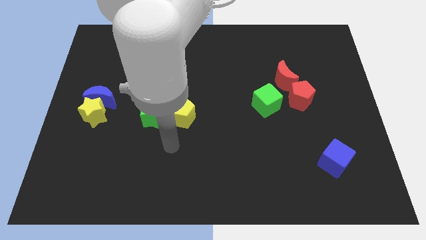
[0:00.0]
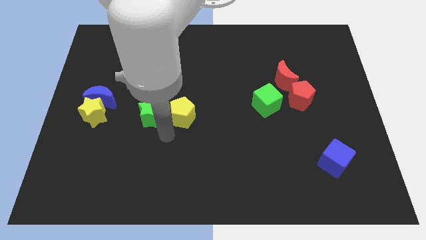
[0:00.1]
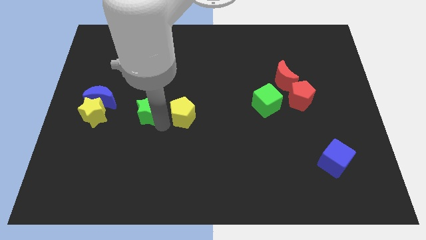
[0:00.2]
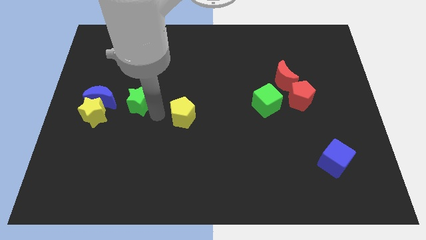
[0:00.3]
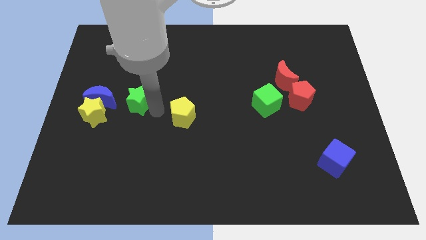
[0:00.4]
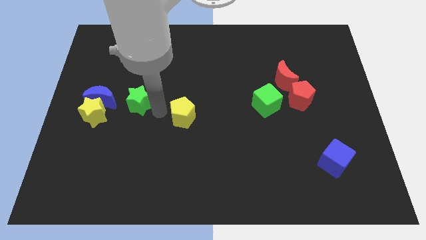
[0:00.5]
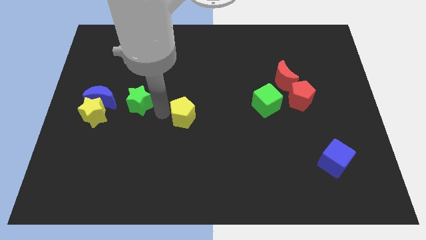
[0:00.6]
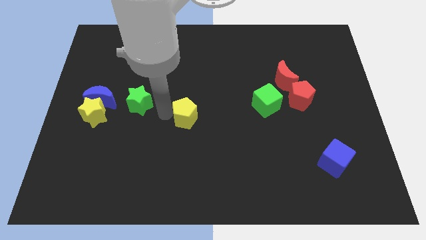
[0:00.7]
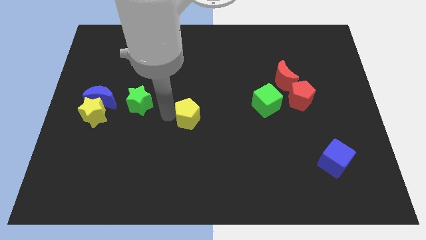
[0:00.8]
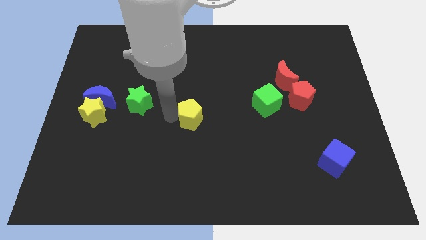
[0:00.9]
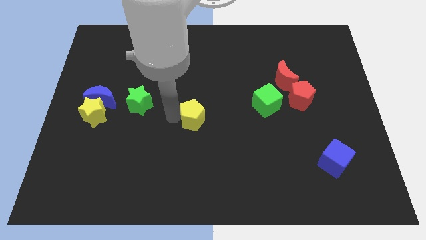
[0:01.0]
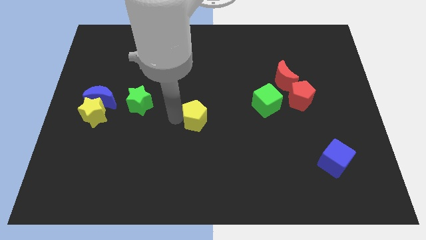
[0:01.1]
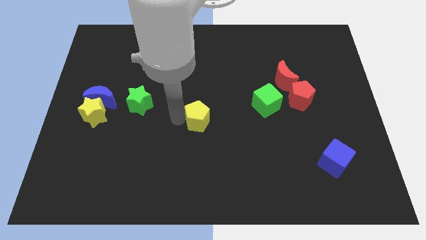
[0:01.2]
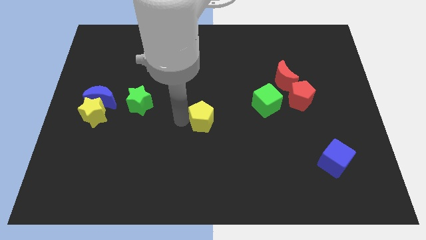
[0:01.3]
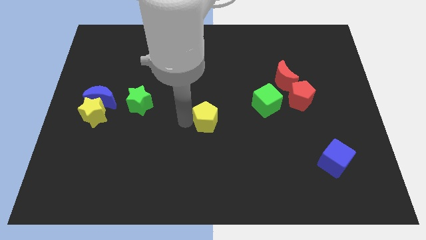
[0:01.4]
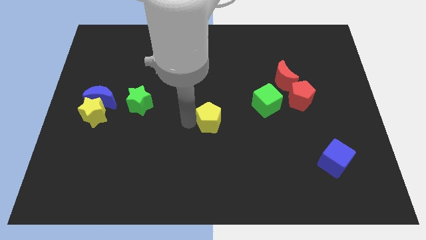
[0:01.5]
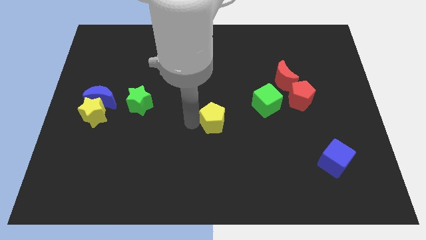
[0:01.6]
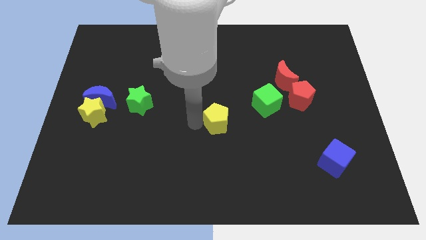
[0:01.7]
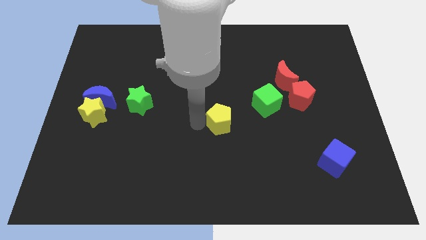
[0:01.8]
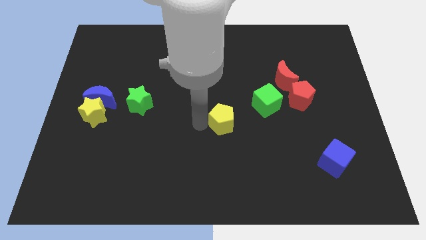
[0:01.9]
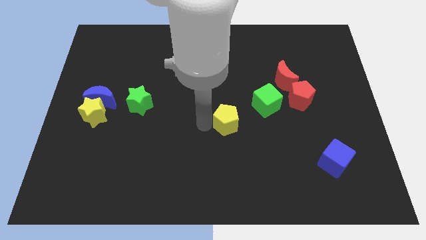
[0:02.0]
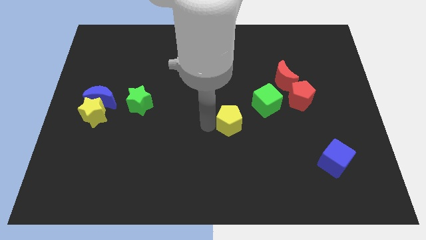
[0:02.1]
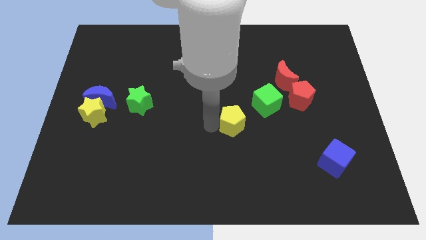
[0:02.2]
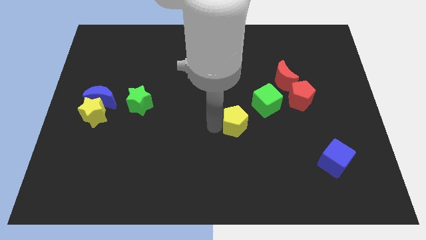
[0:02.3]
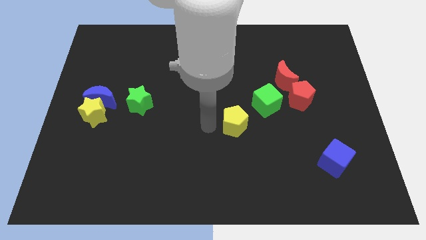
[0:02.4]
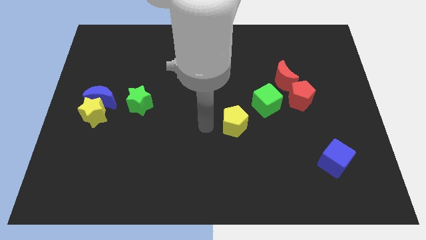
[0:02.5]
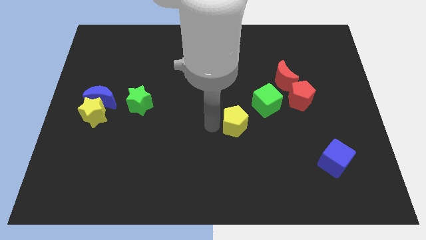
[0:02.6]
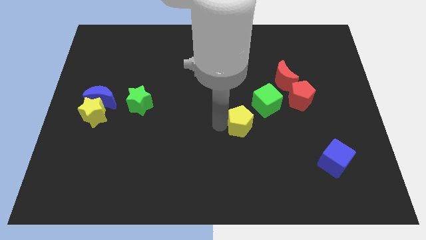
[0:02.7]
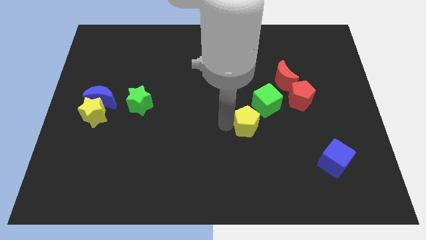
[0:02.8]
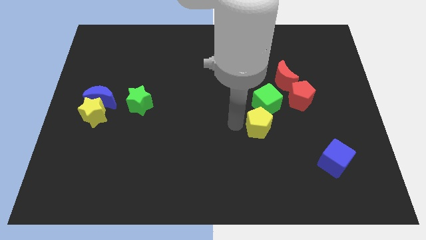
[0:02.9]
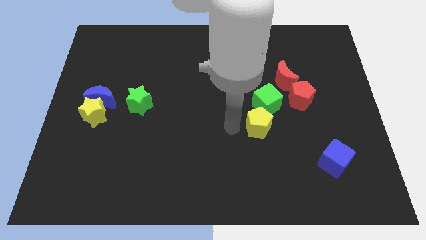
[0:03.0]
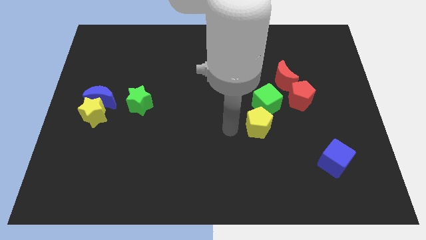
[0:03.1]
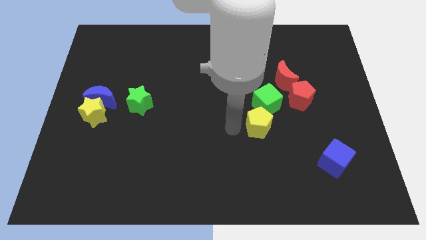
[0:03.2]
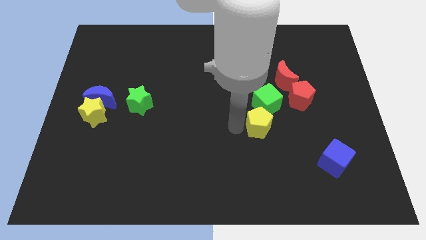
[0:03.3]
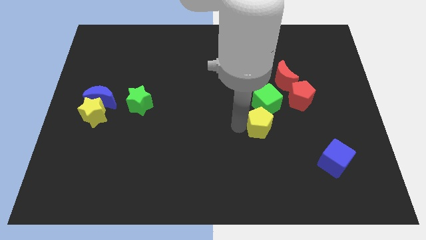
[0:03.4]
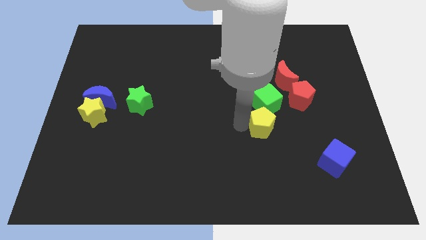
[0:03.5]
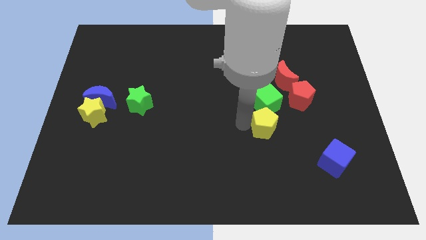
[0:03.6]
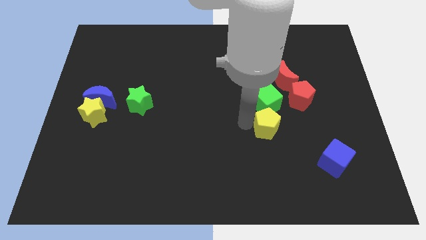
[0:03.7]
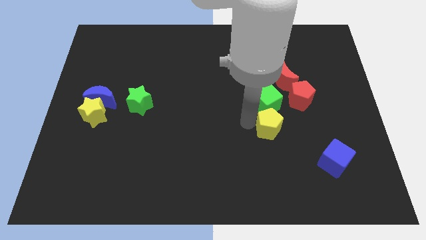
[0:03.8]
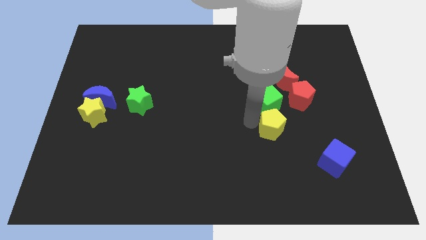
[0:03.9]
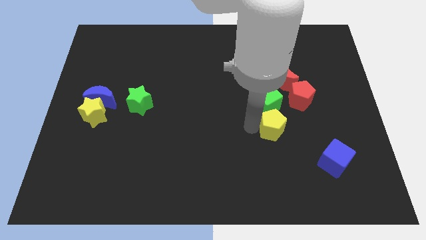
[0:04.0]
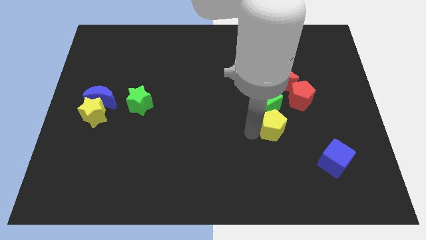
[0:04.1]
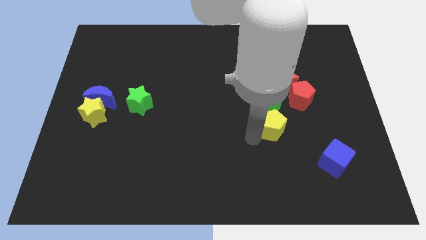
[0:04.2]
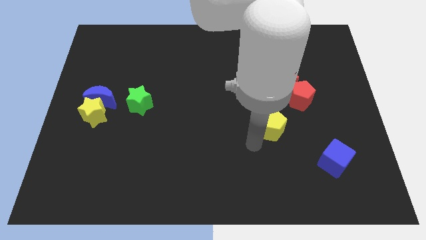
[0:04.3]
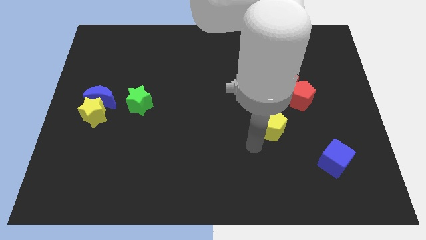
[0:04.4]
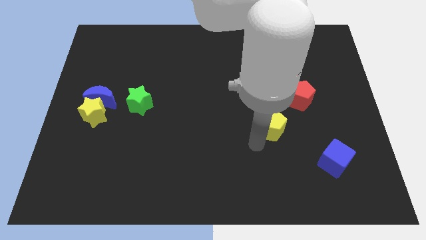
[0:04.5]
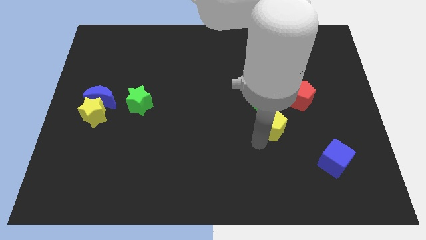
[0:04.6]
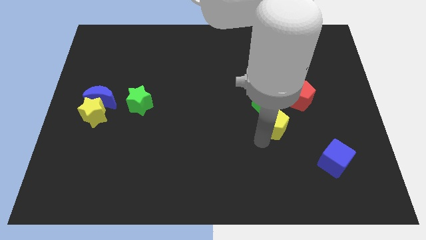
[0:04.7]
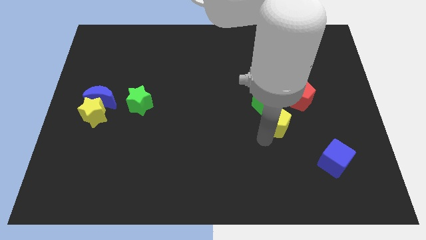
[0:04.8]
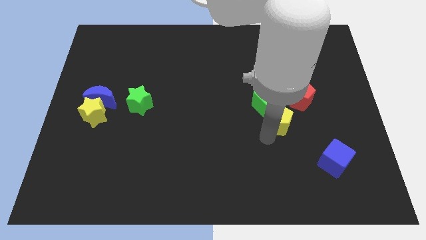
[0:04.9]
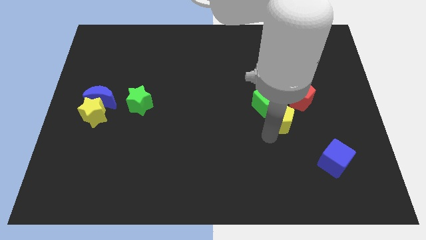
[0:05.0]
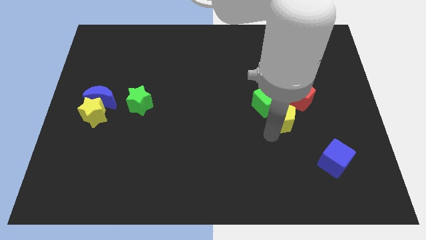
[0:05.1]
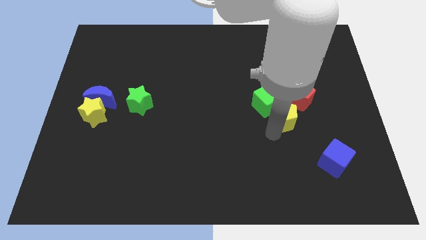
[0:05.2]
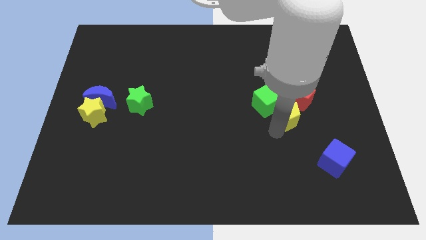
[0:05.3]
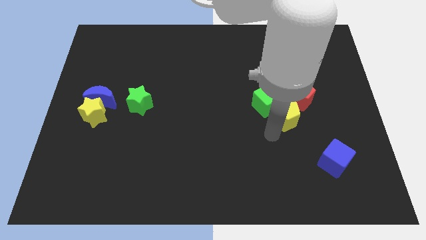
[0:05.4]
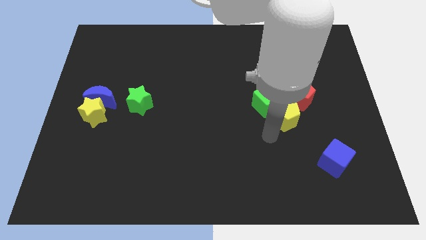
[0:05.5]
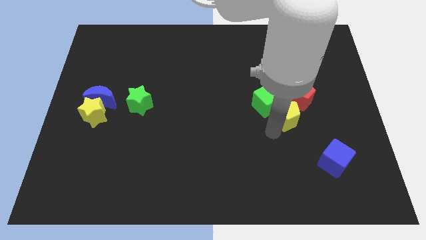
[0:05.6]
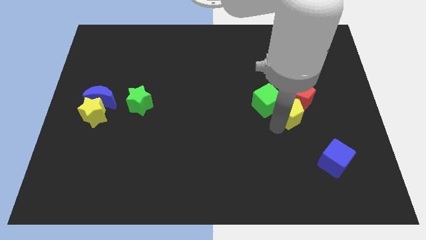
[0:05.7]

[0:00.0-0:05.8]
push the yellow pentagon close to the red pentagon

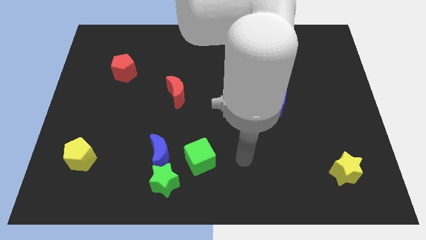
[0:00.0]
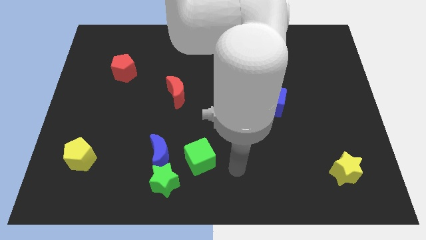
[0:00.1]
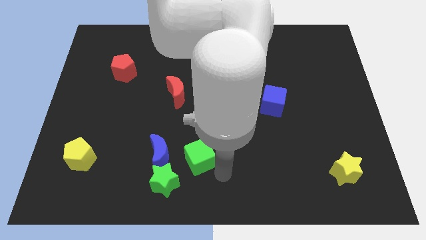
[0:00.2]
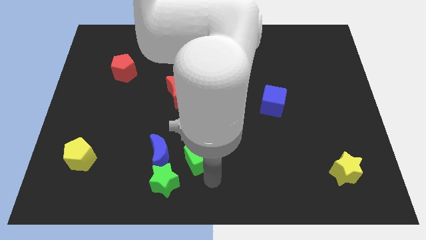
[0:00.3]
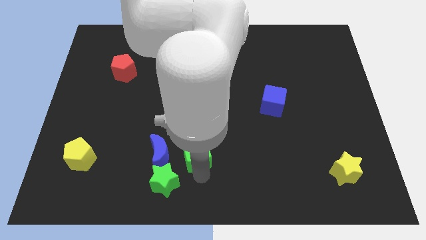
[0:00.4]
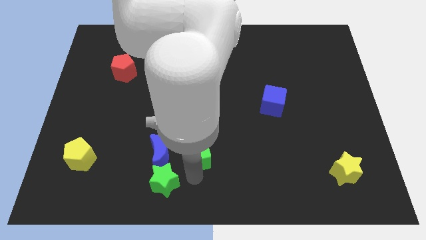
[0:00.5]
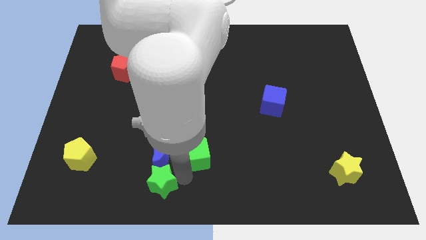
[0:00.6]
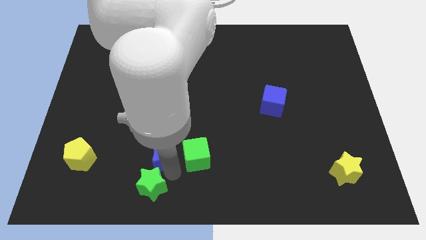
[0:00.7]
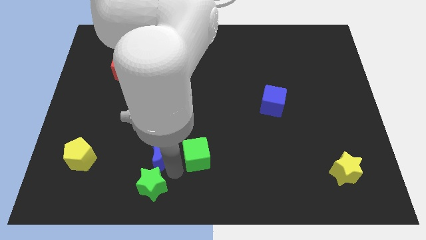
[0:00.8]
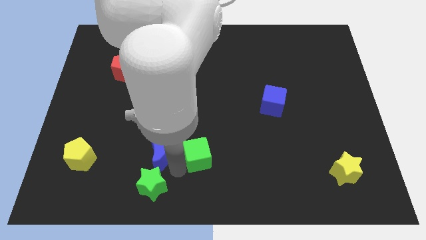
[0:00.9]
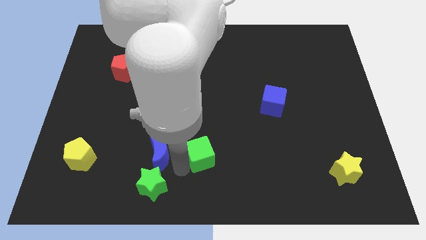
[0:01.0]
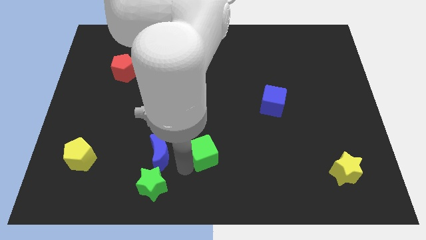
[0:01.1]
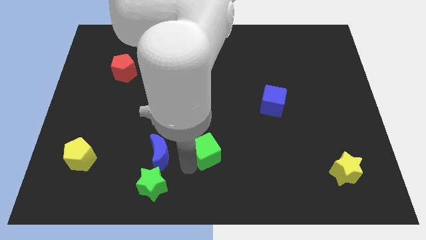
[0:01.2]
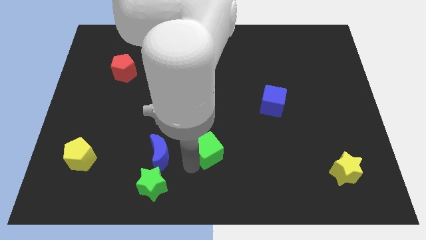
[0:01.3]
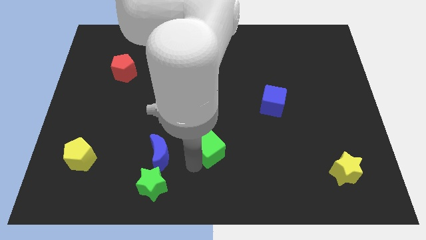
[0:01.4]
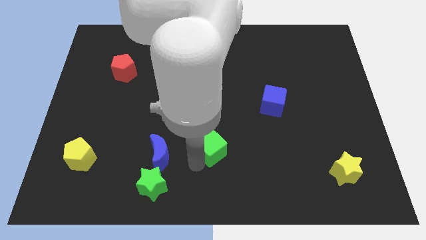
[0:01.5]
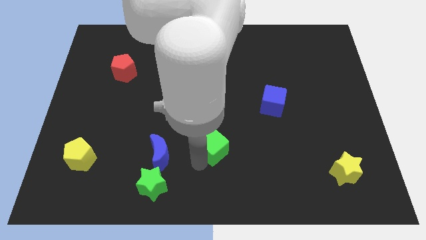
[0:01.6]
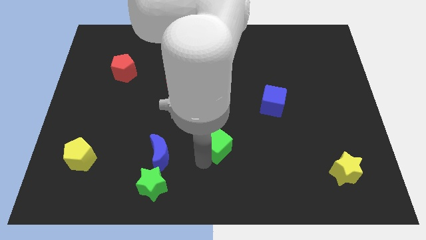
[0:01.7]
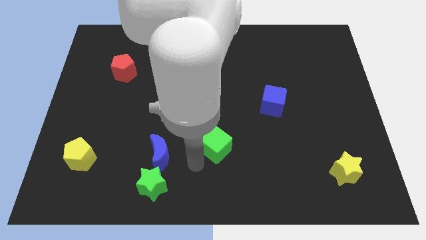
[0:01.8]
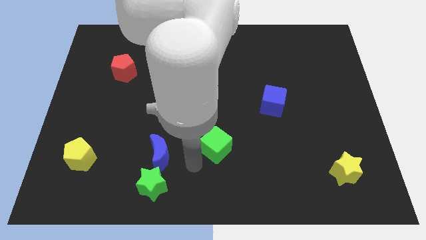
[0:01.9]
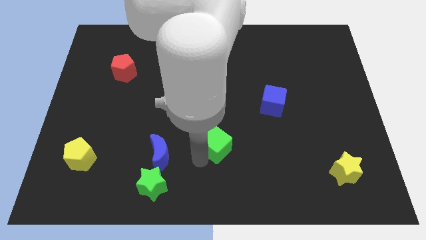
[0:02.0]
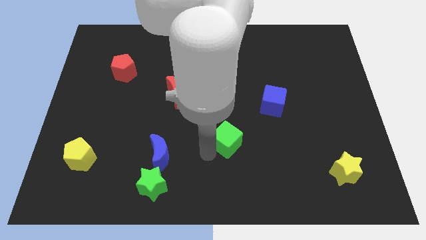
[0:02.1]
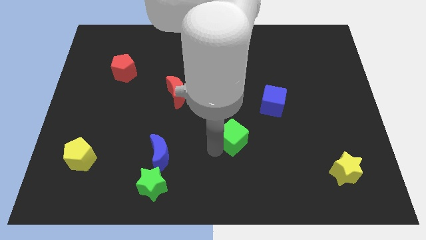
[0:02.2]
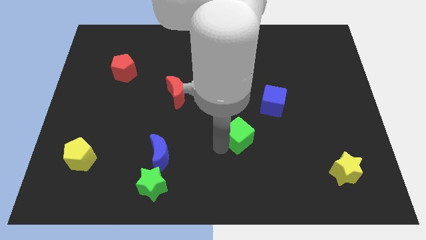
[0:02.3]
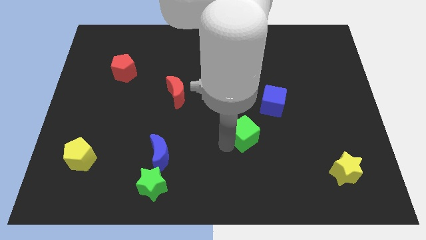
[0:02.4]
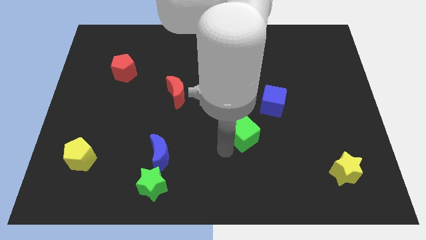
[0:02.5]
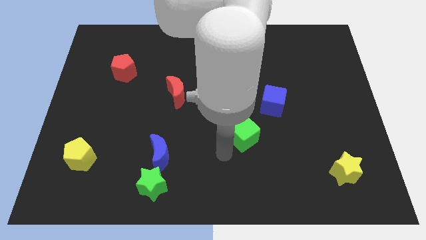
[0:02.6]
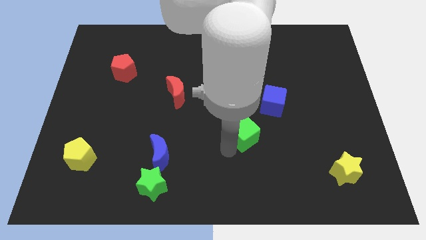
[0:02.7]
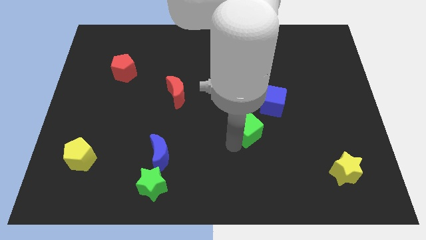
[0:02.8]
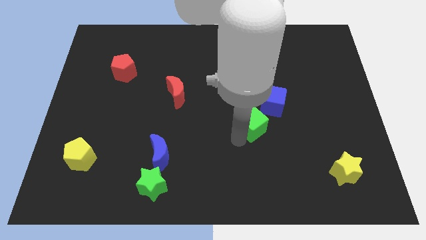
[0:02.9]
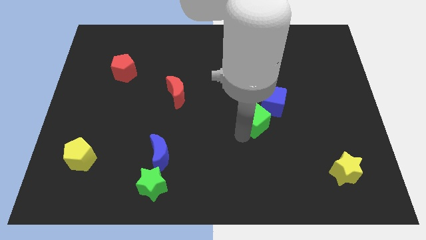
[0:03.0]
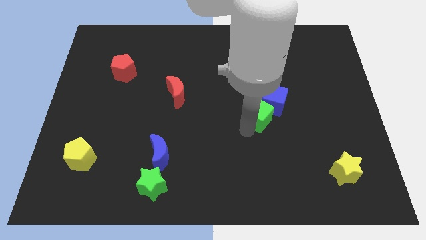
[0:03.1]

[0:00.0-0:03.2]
put the green cube close to the blue cube
